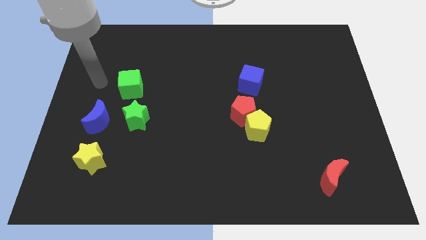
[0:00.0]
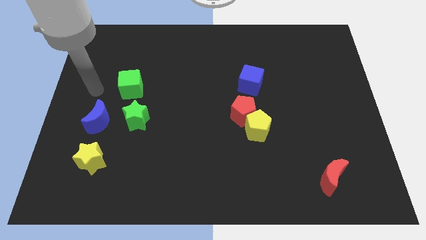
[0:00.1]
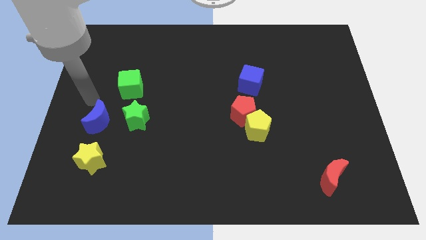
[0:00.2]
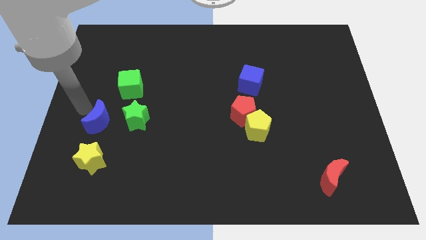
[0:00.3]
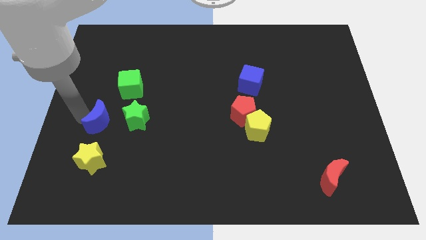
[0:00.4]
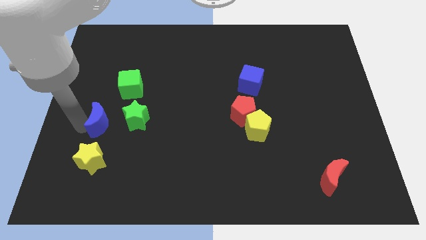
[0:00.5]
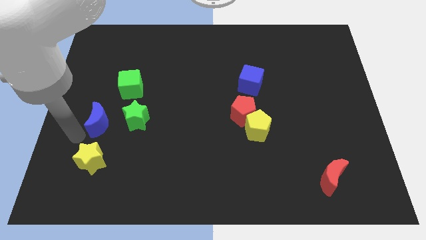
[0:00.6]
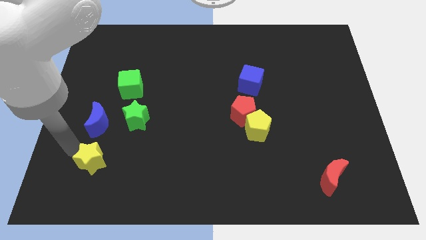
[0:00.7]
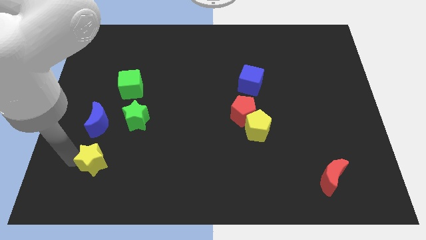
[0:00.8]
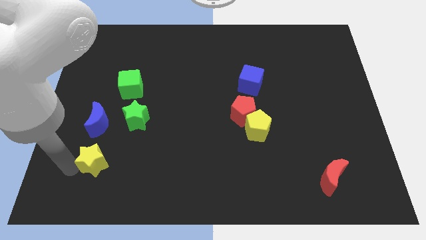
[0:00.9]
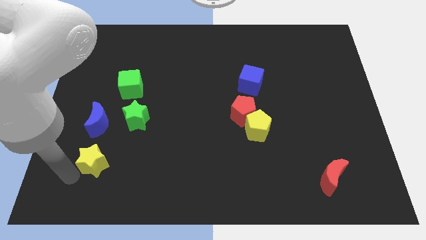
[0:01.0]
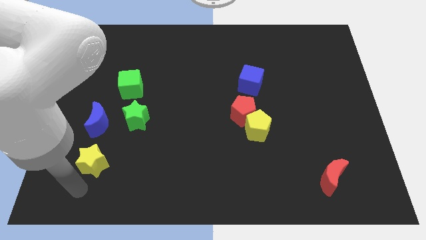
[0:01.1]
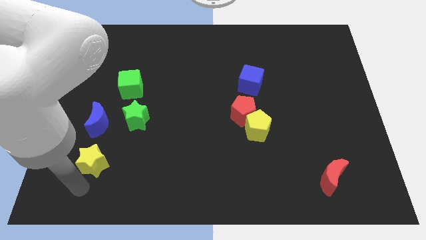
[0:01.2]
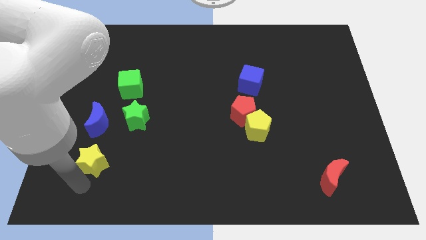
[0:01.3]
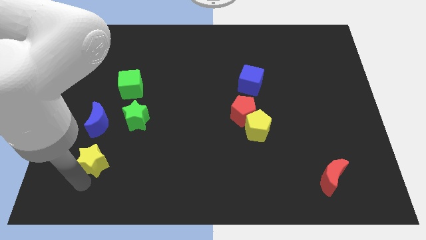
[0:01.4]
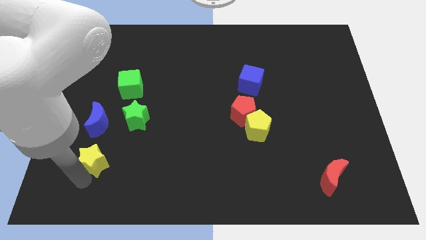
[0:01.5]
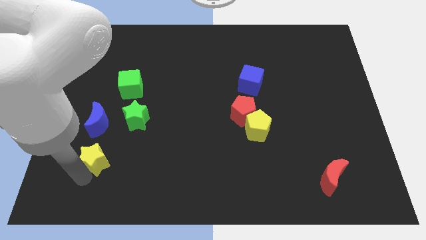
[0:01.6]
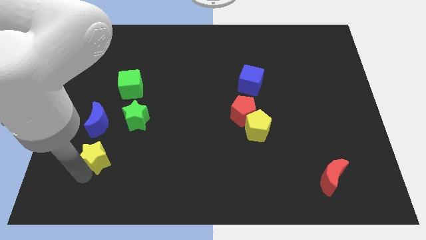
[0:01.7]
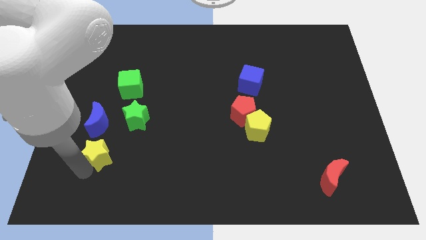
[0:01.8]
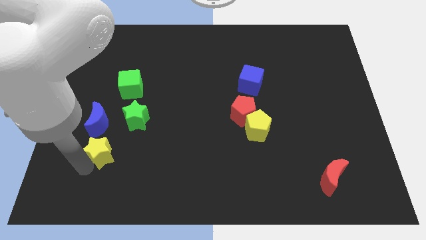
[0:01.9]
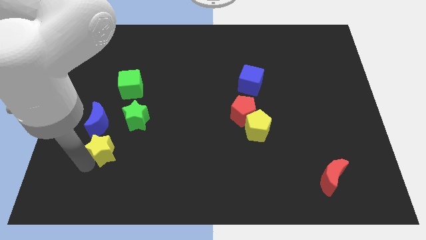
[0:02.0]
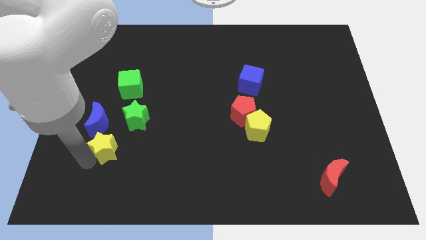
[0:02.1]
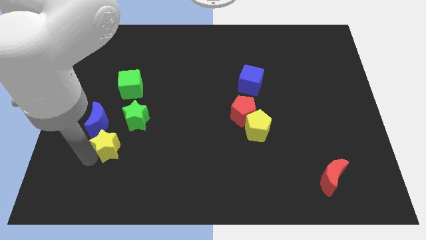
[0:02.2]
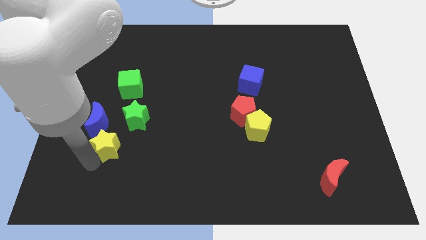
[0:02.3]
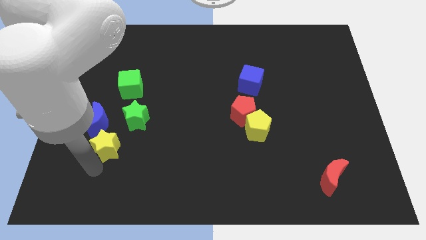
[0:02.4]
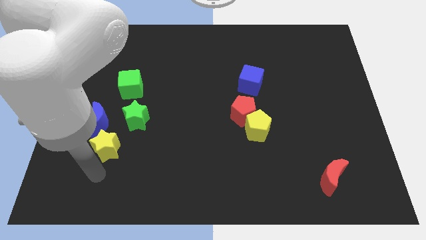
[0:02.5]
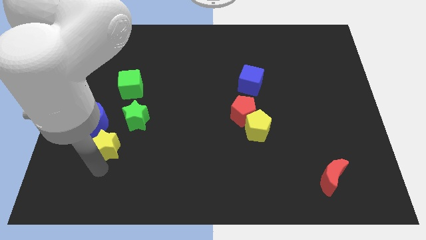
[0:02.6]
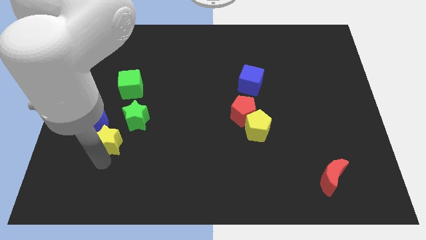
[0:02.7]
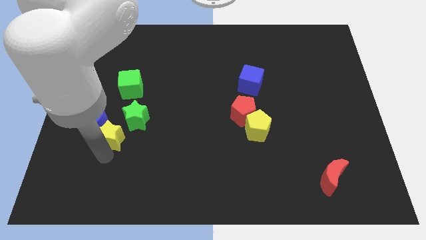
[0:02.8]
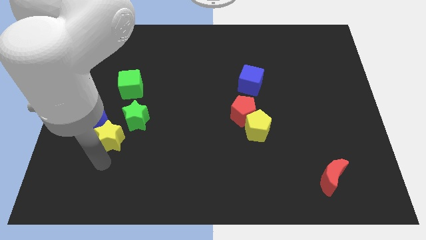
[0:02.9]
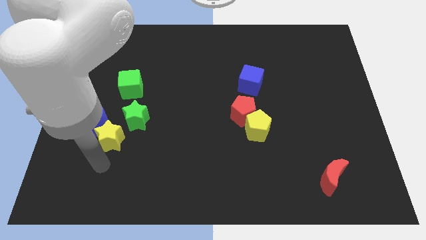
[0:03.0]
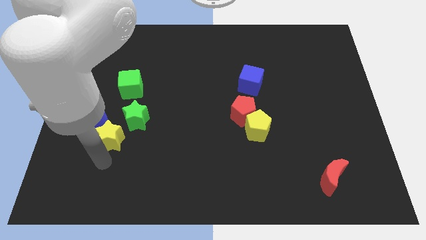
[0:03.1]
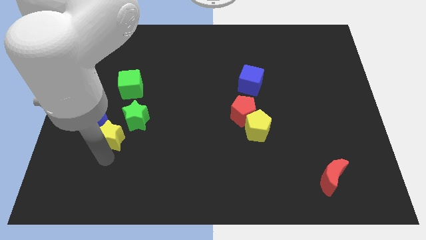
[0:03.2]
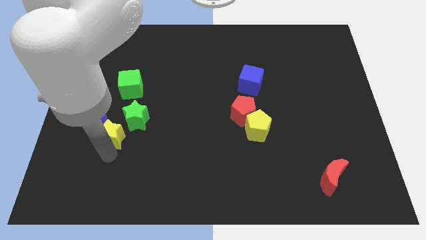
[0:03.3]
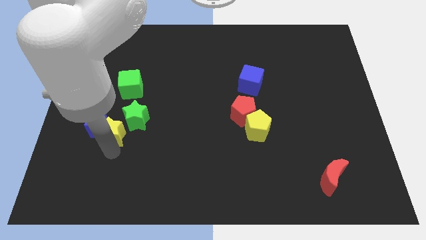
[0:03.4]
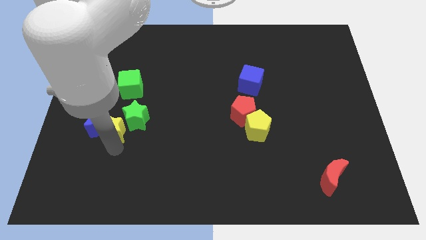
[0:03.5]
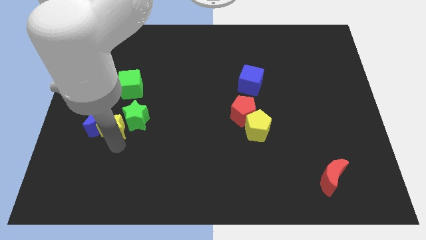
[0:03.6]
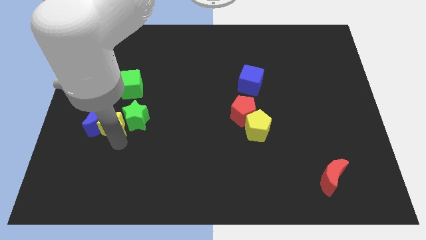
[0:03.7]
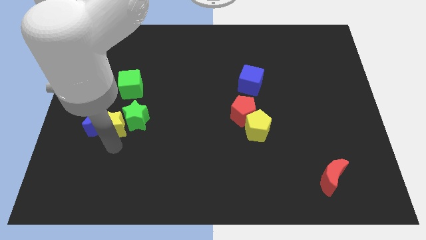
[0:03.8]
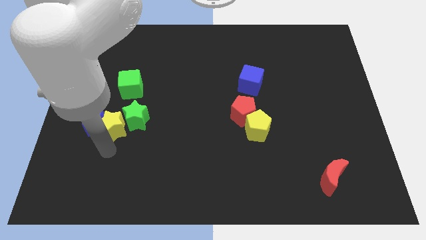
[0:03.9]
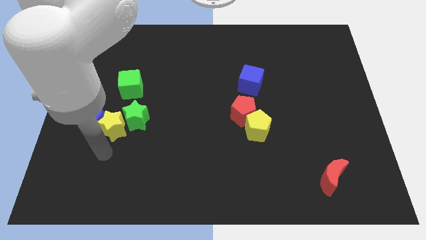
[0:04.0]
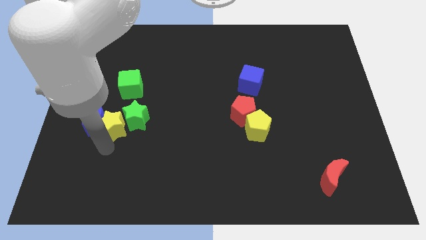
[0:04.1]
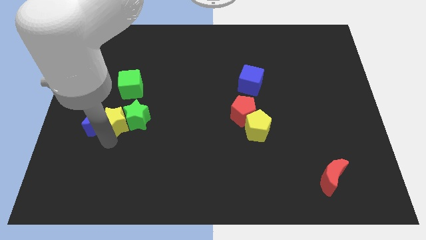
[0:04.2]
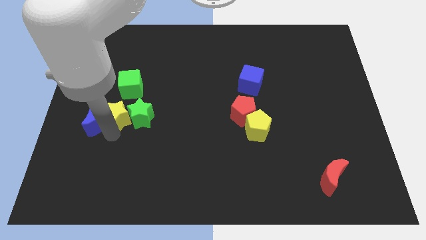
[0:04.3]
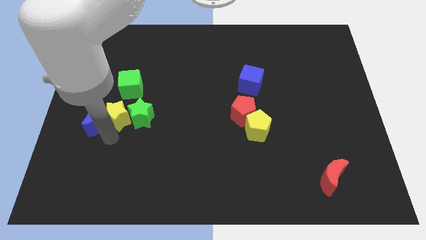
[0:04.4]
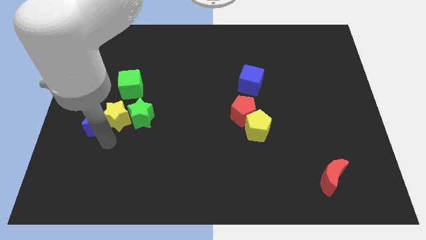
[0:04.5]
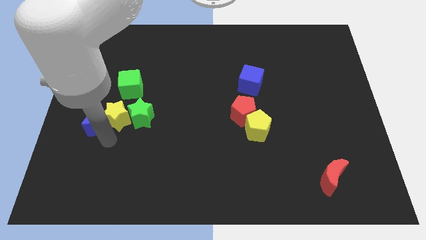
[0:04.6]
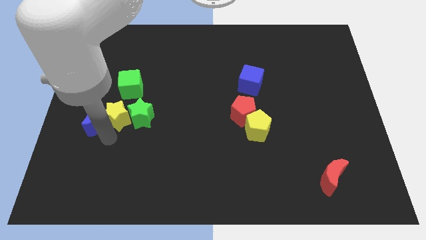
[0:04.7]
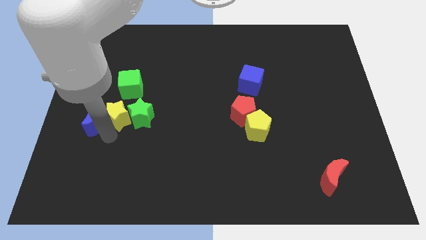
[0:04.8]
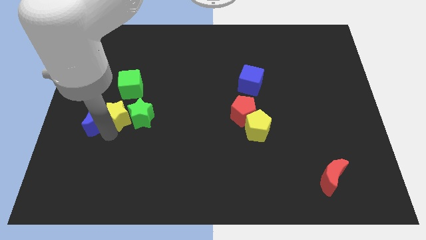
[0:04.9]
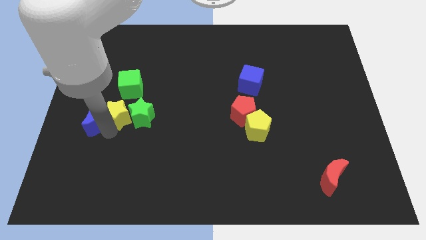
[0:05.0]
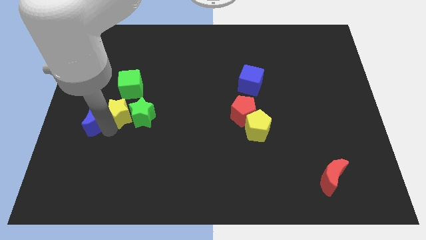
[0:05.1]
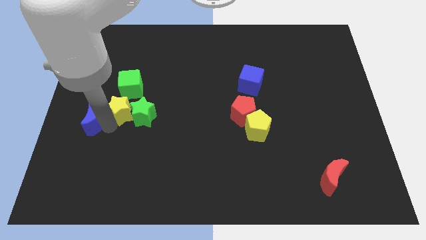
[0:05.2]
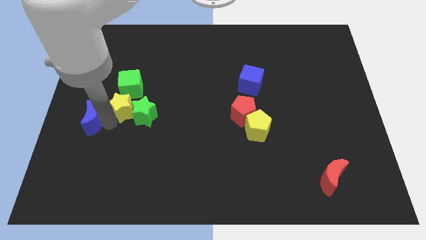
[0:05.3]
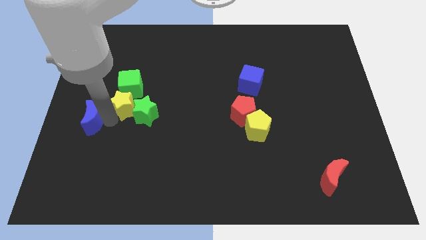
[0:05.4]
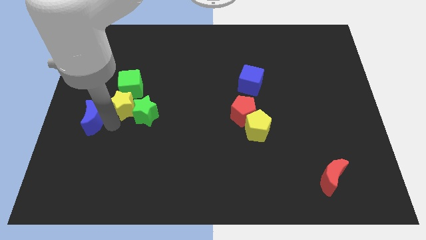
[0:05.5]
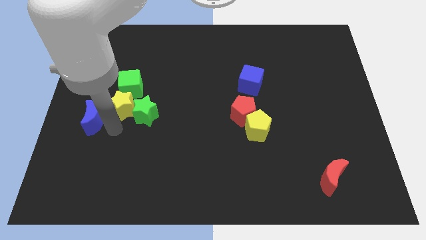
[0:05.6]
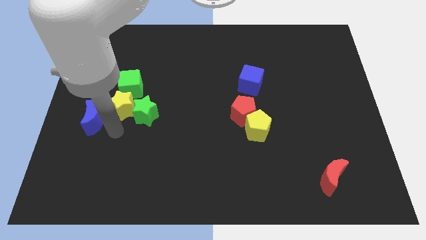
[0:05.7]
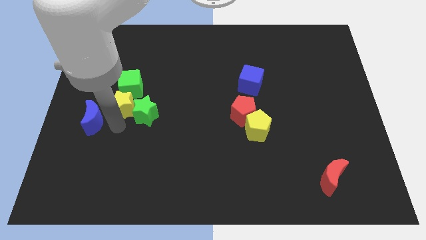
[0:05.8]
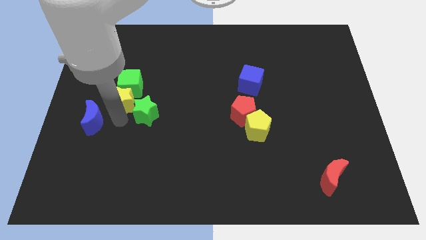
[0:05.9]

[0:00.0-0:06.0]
move the yellow star to the green cube

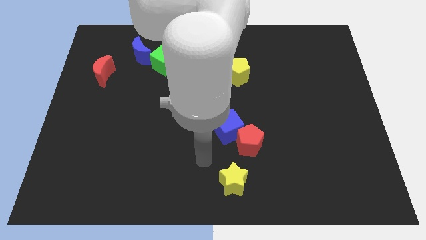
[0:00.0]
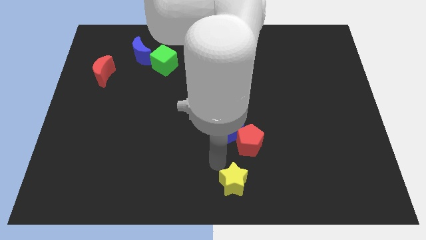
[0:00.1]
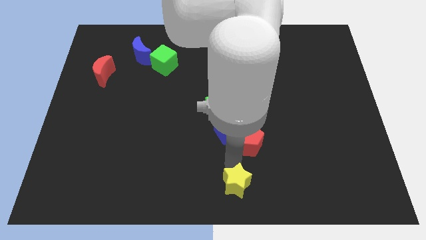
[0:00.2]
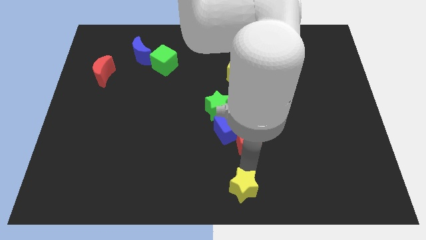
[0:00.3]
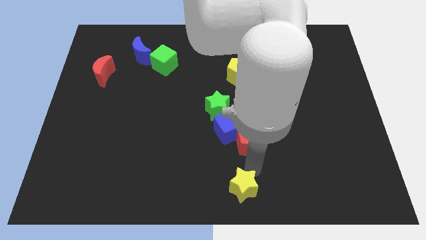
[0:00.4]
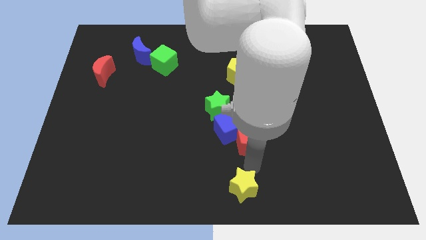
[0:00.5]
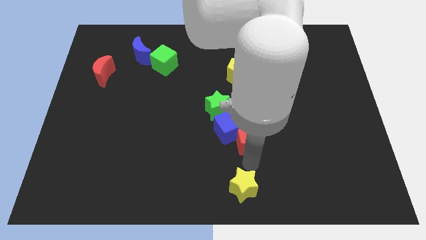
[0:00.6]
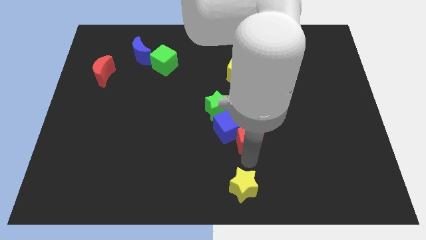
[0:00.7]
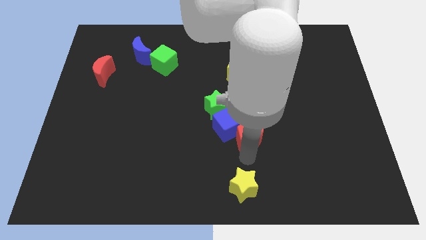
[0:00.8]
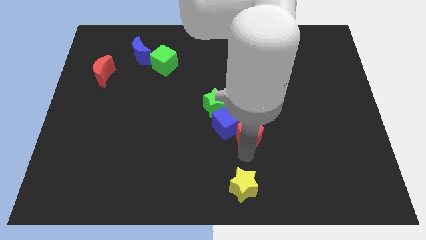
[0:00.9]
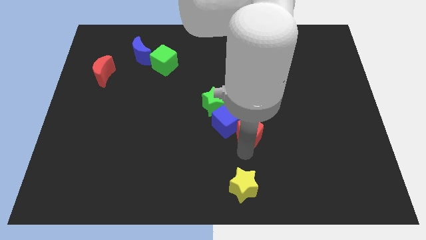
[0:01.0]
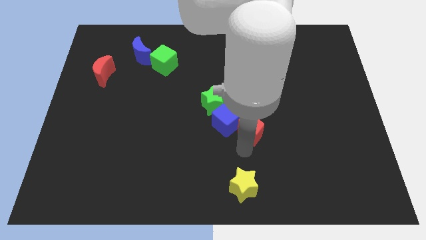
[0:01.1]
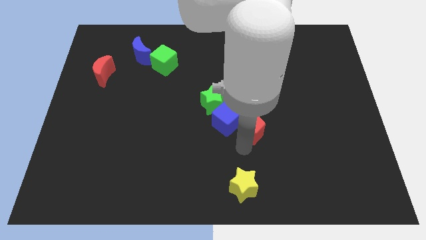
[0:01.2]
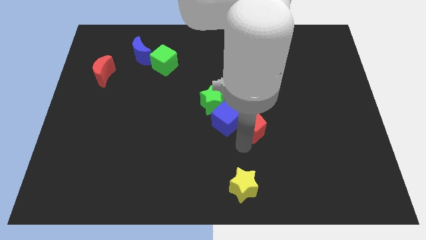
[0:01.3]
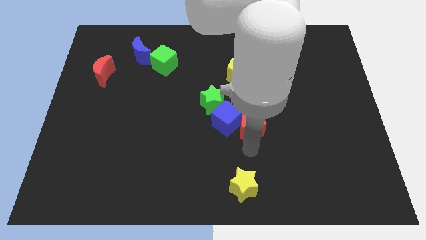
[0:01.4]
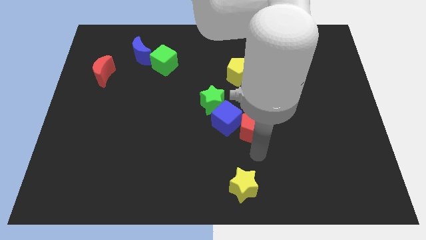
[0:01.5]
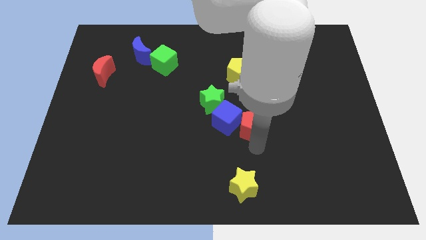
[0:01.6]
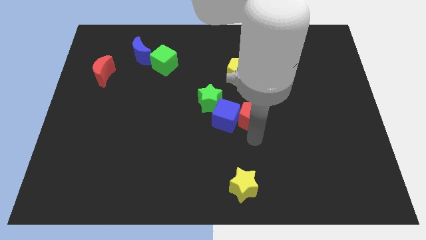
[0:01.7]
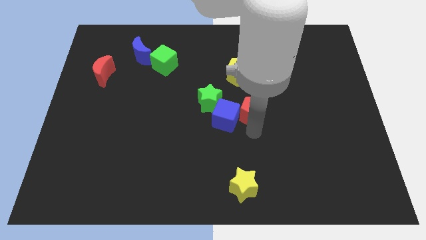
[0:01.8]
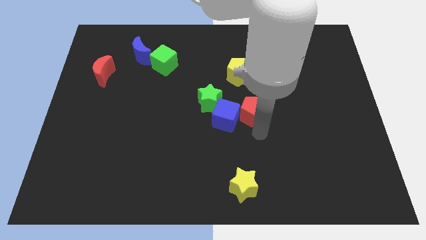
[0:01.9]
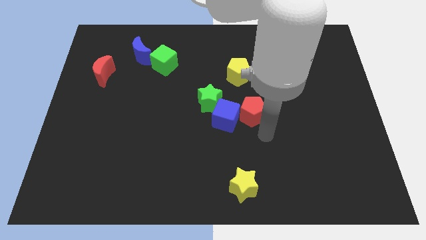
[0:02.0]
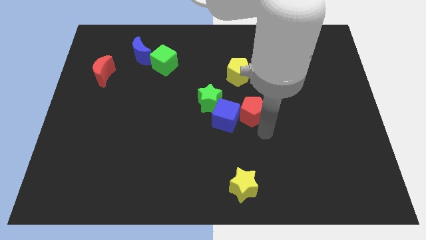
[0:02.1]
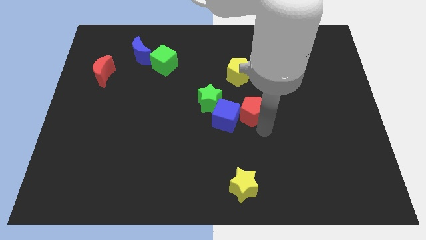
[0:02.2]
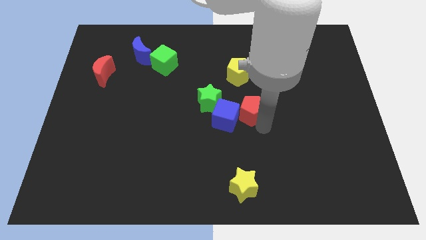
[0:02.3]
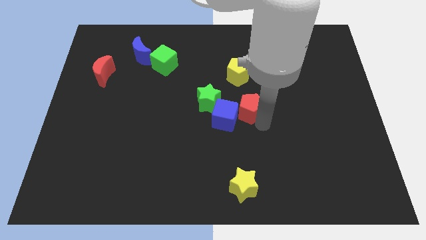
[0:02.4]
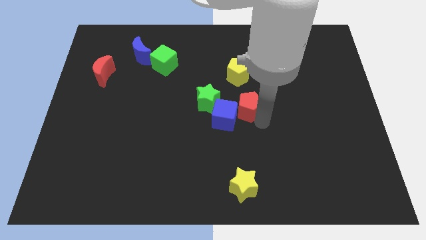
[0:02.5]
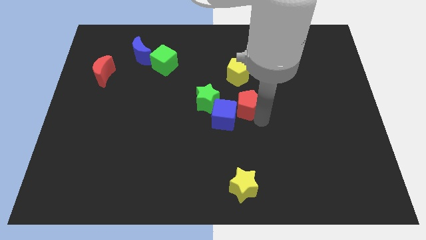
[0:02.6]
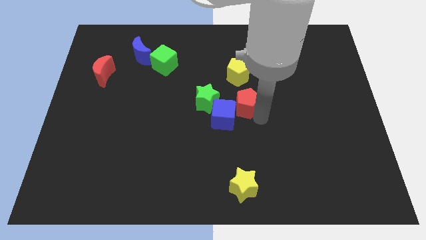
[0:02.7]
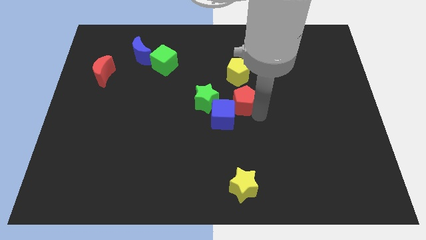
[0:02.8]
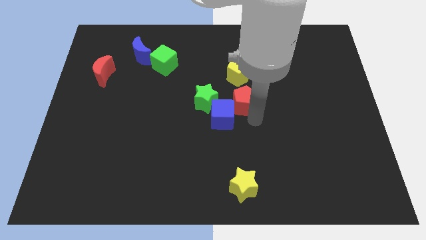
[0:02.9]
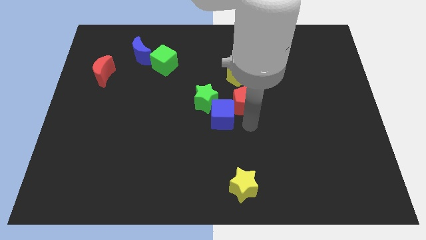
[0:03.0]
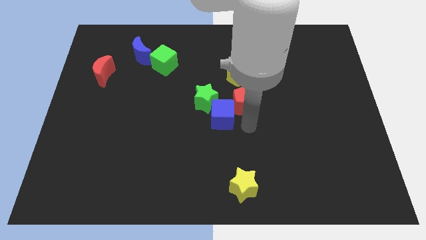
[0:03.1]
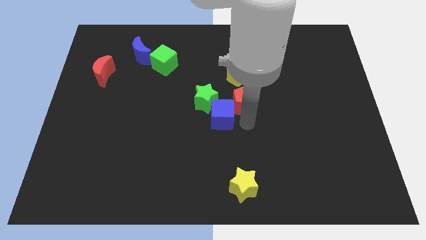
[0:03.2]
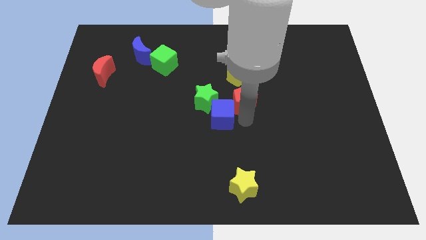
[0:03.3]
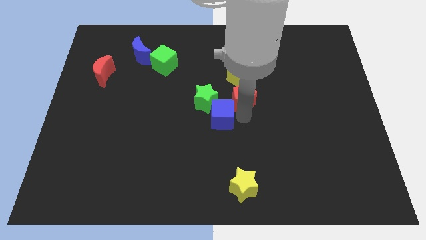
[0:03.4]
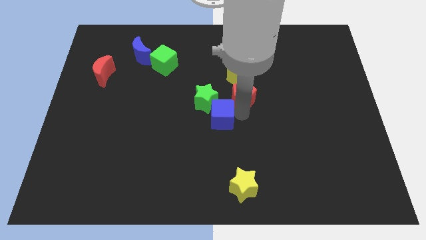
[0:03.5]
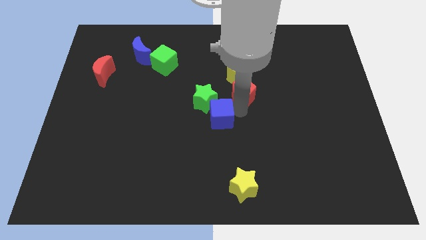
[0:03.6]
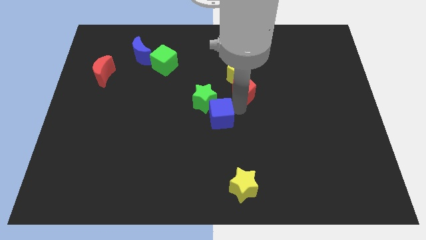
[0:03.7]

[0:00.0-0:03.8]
move the red pentagon close to the yellow pentagon
